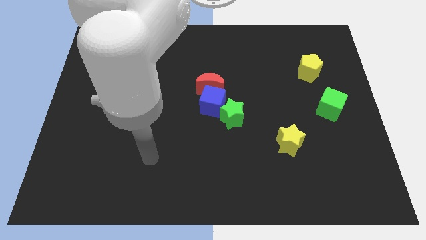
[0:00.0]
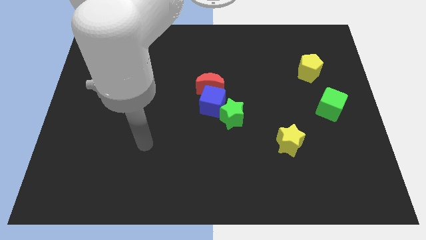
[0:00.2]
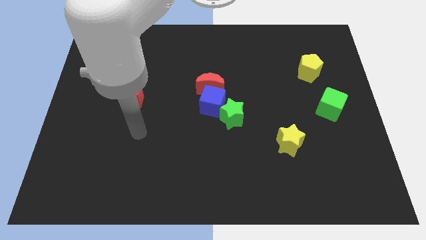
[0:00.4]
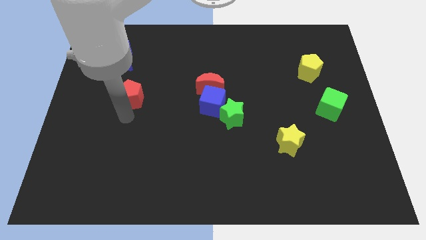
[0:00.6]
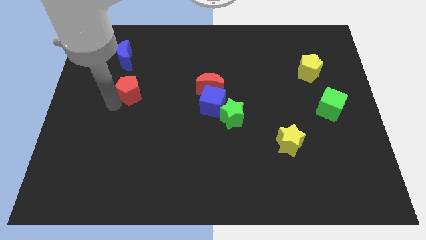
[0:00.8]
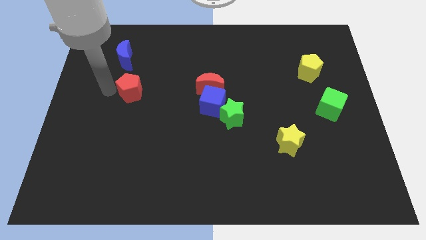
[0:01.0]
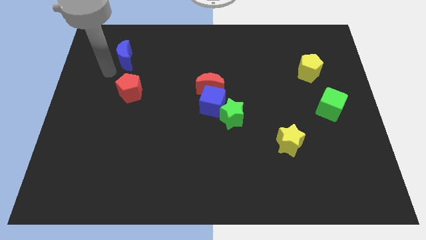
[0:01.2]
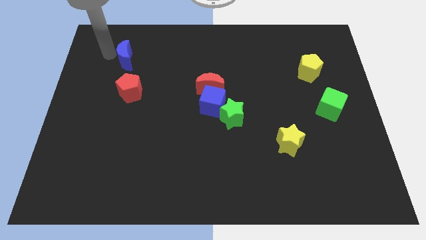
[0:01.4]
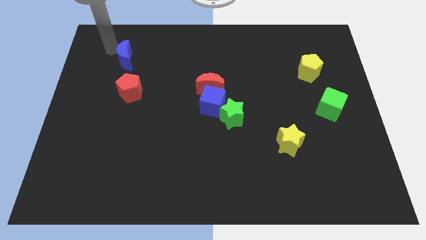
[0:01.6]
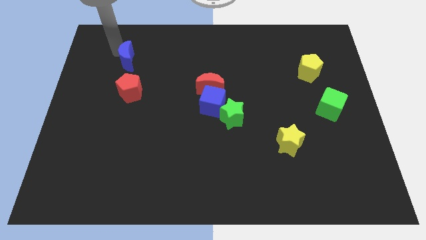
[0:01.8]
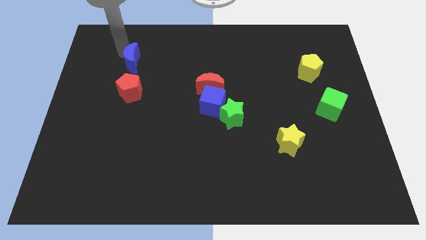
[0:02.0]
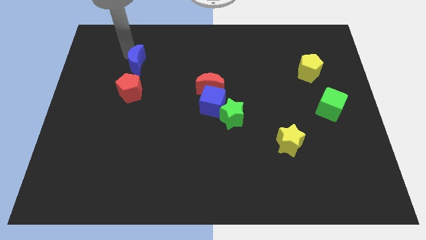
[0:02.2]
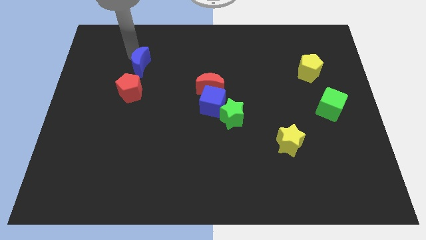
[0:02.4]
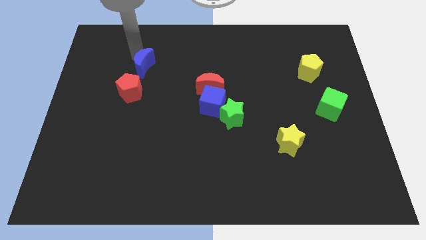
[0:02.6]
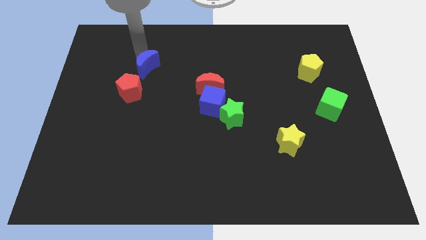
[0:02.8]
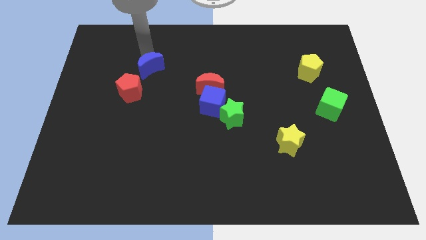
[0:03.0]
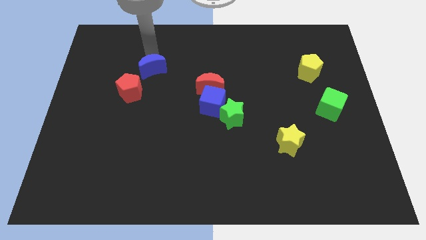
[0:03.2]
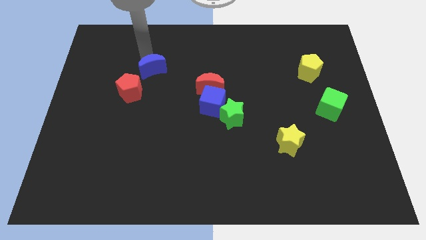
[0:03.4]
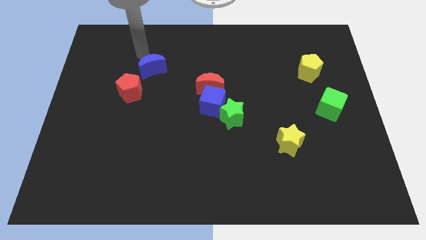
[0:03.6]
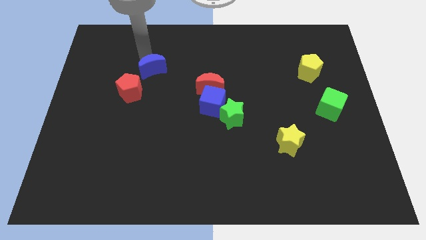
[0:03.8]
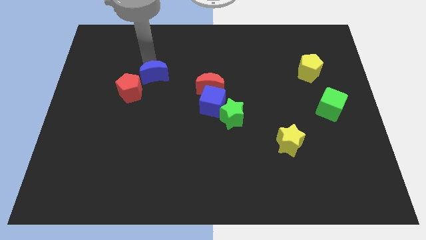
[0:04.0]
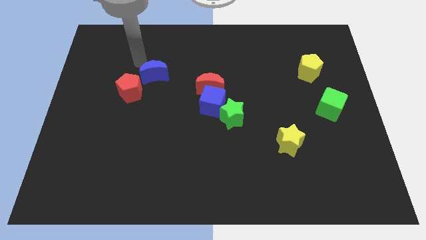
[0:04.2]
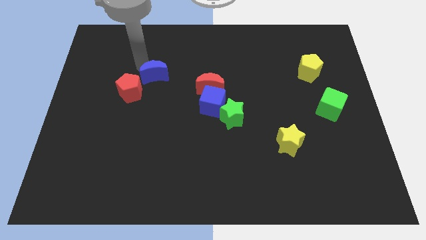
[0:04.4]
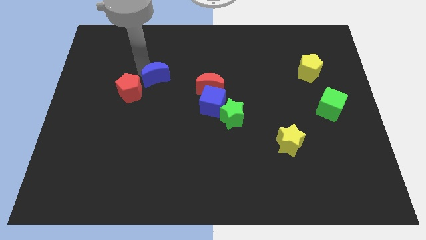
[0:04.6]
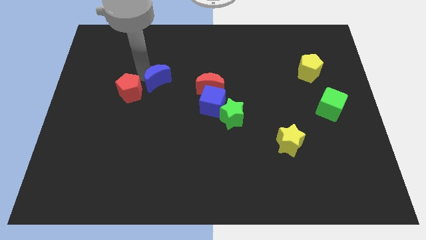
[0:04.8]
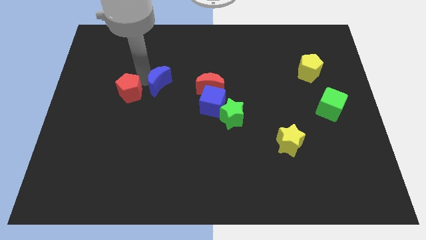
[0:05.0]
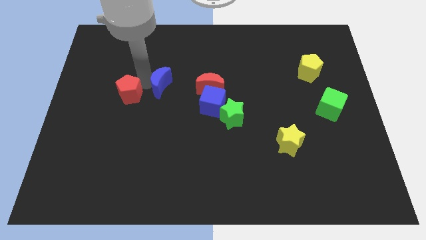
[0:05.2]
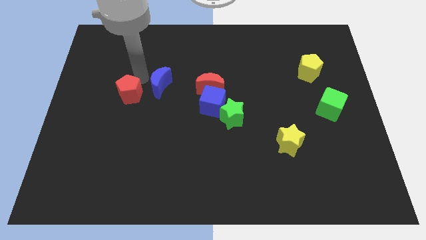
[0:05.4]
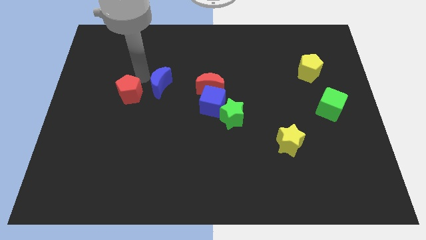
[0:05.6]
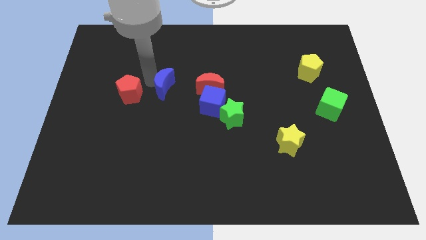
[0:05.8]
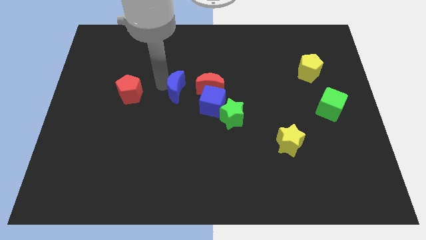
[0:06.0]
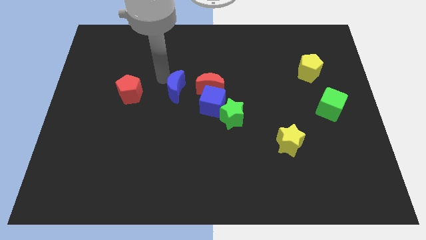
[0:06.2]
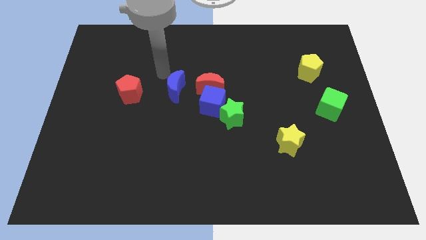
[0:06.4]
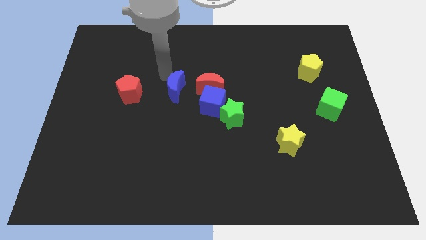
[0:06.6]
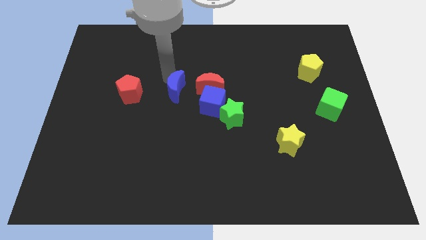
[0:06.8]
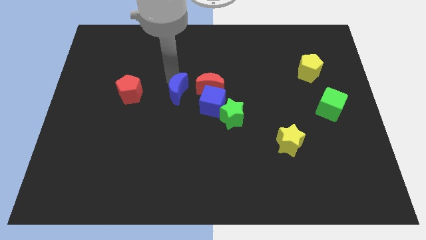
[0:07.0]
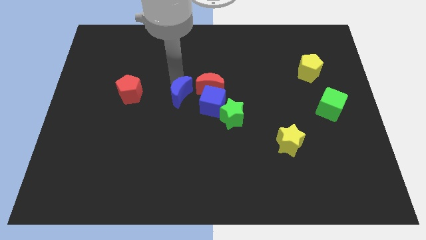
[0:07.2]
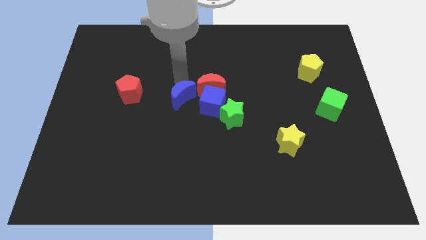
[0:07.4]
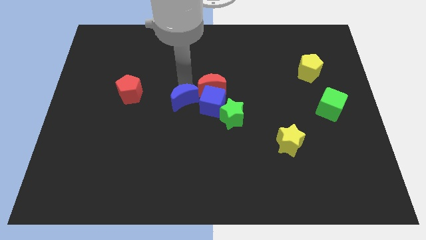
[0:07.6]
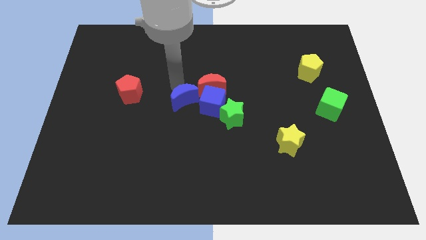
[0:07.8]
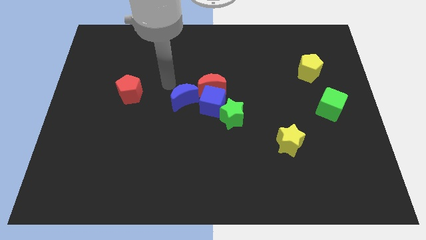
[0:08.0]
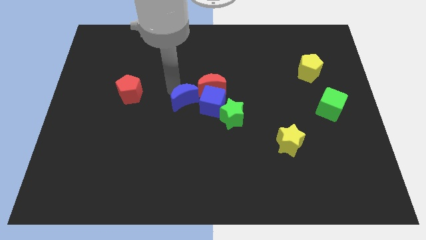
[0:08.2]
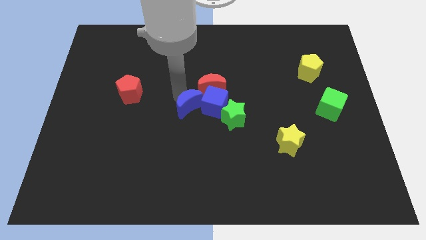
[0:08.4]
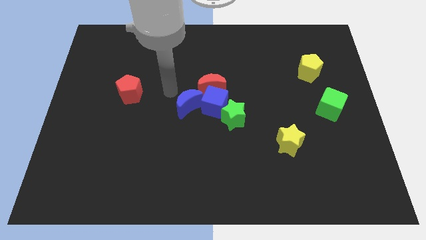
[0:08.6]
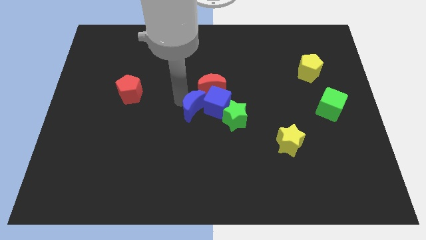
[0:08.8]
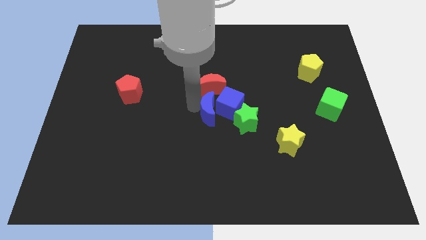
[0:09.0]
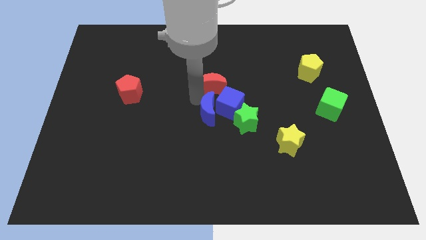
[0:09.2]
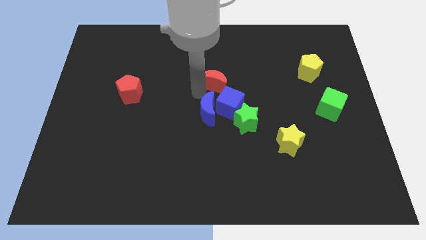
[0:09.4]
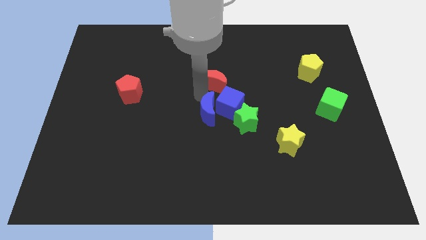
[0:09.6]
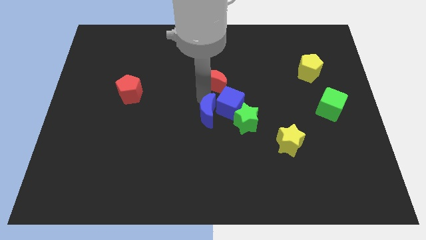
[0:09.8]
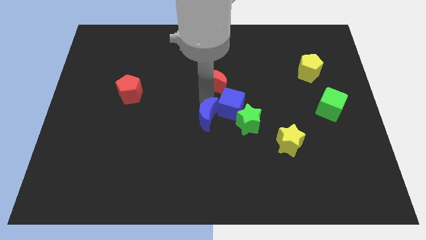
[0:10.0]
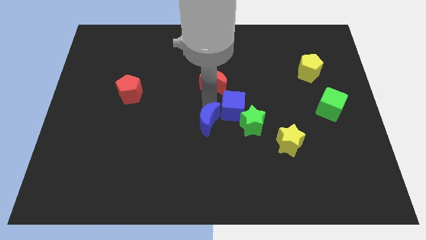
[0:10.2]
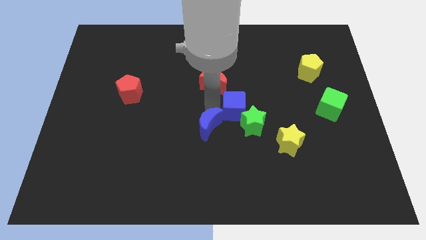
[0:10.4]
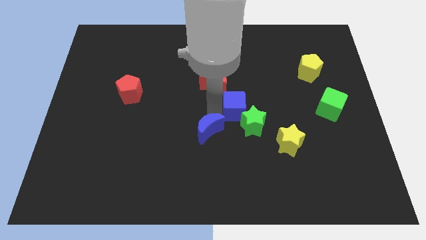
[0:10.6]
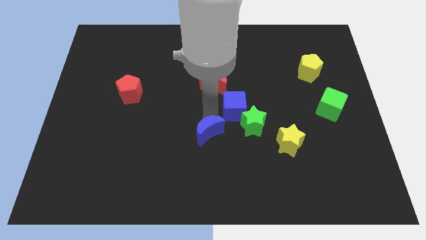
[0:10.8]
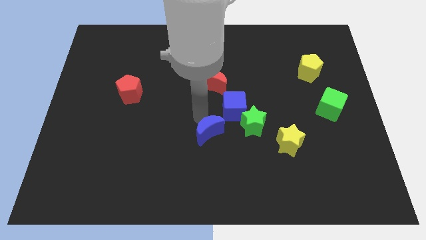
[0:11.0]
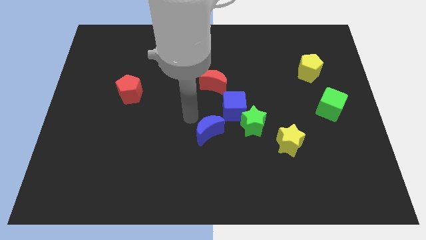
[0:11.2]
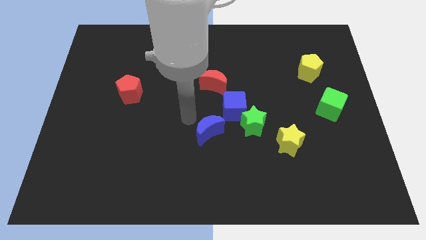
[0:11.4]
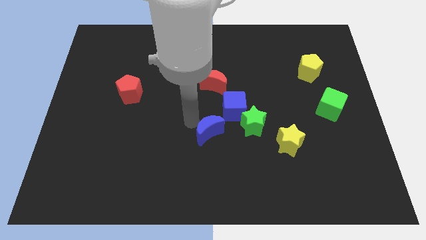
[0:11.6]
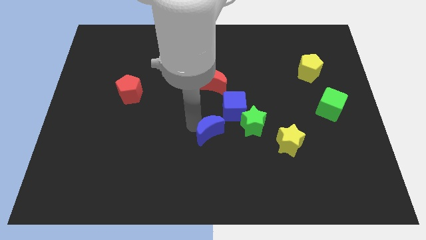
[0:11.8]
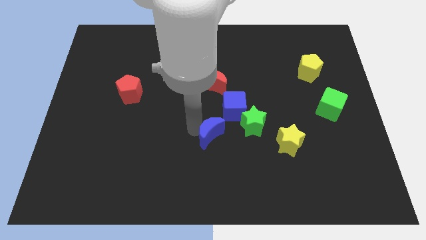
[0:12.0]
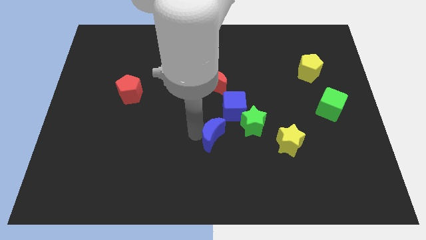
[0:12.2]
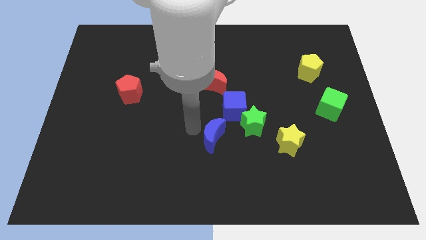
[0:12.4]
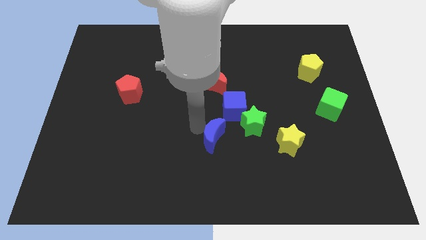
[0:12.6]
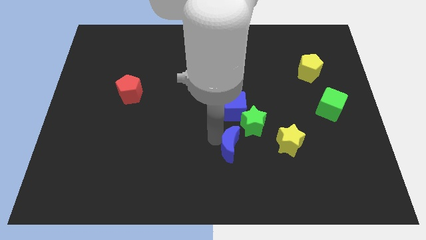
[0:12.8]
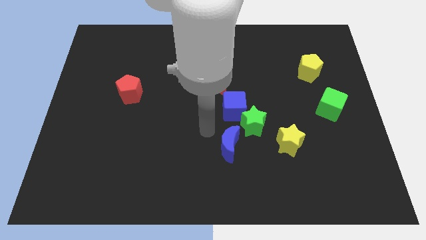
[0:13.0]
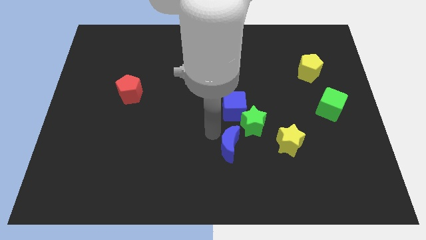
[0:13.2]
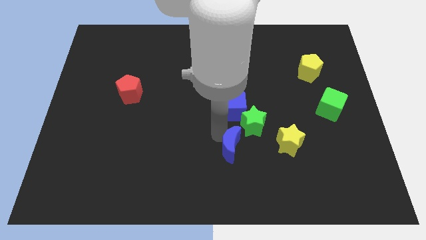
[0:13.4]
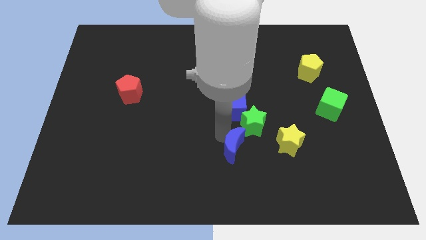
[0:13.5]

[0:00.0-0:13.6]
move the blue moon to the bottom of the green star

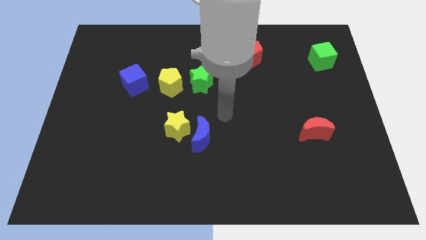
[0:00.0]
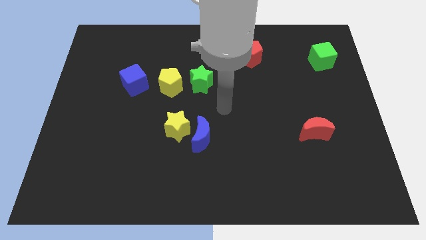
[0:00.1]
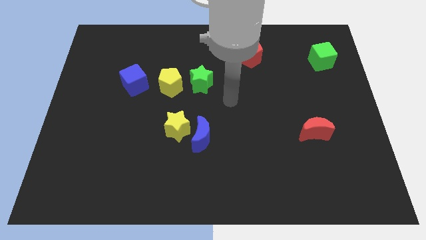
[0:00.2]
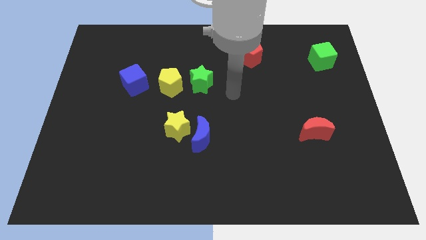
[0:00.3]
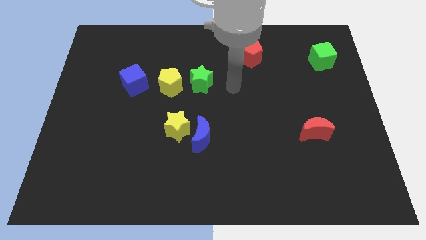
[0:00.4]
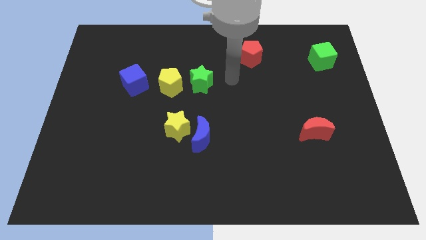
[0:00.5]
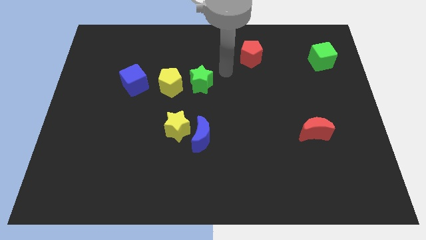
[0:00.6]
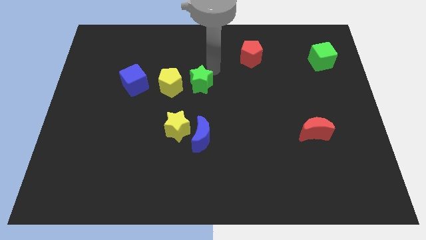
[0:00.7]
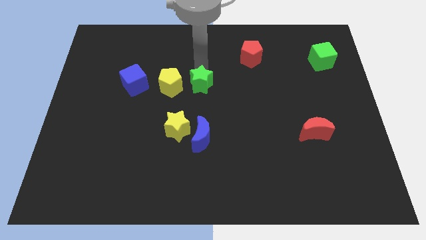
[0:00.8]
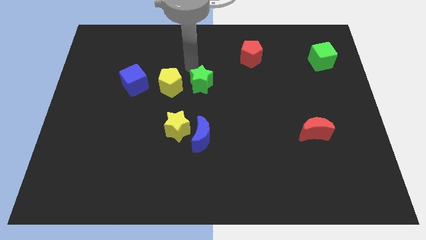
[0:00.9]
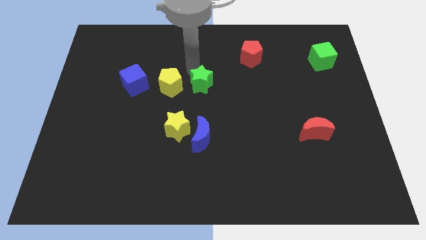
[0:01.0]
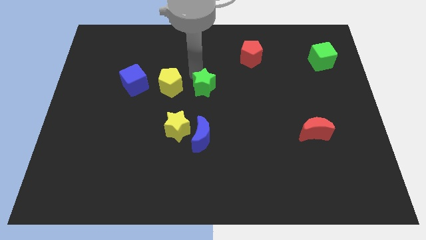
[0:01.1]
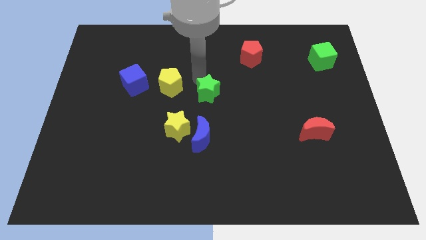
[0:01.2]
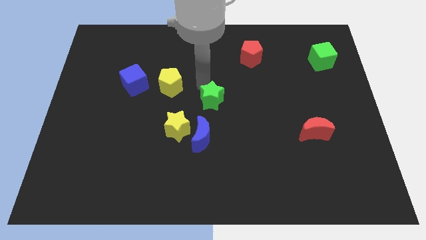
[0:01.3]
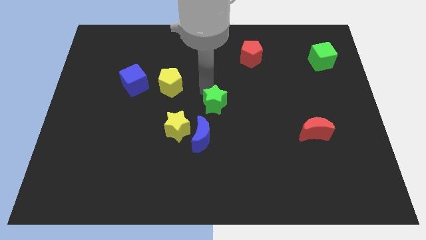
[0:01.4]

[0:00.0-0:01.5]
push the green star to the top right side of the blue moon
